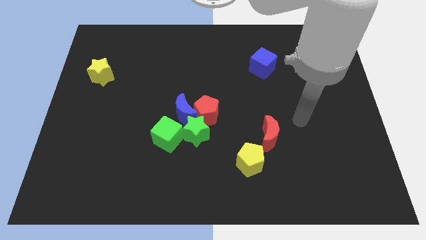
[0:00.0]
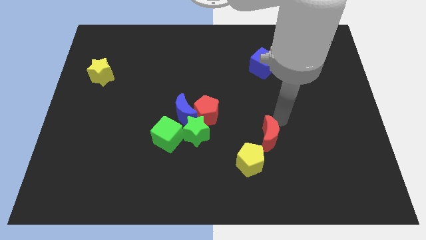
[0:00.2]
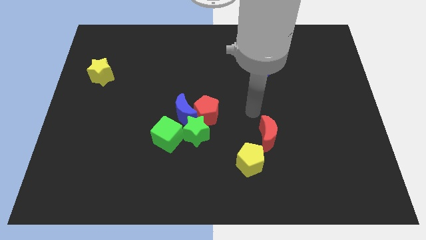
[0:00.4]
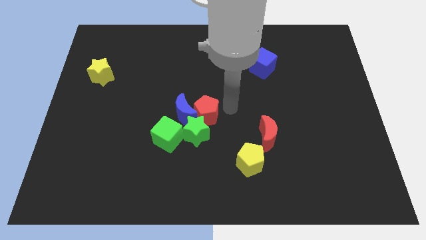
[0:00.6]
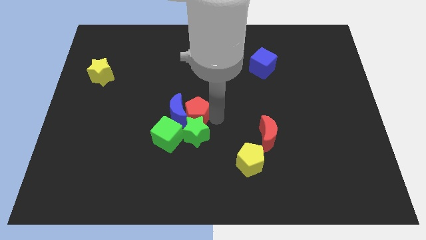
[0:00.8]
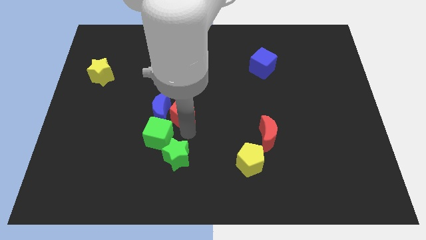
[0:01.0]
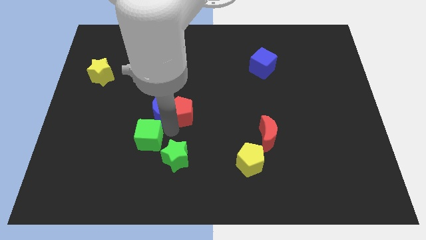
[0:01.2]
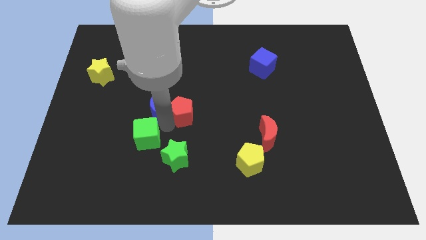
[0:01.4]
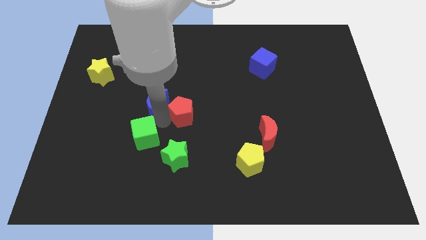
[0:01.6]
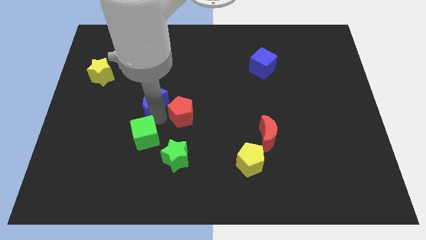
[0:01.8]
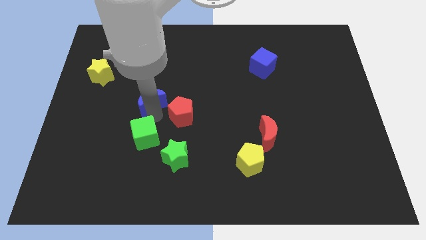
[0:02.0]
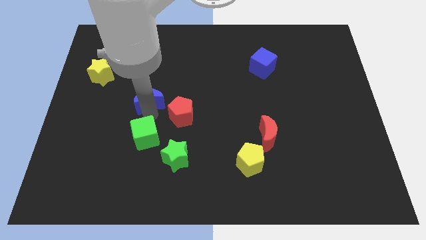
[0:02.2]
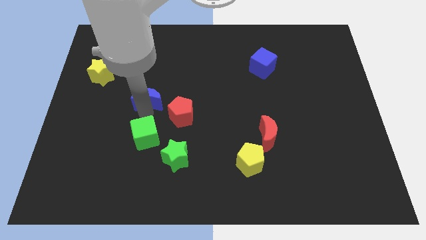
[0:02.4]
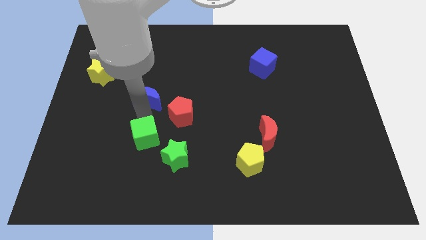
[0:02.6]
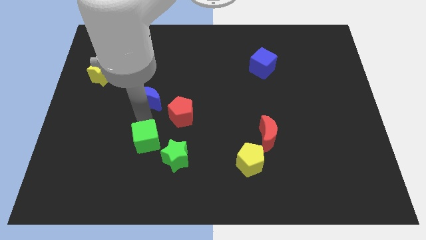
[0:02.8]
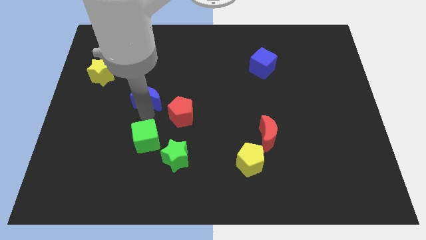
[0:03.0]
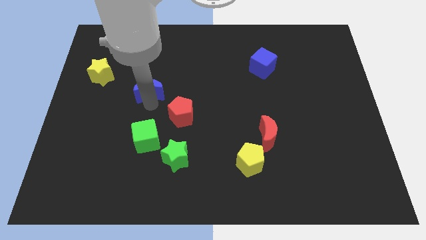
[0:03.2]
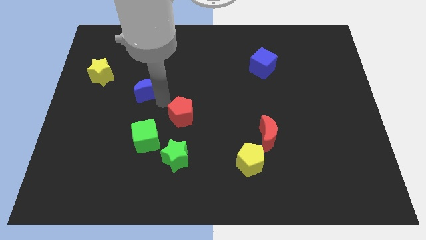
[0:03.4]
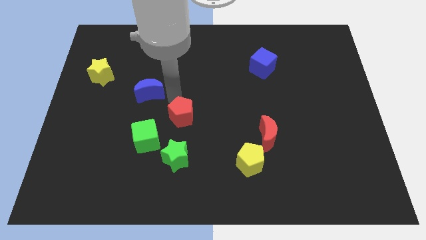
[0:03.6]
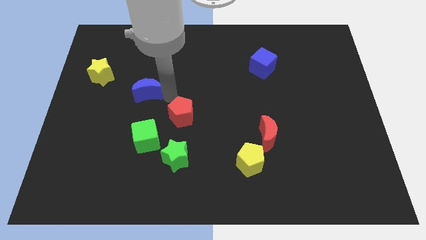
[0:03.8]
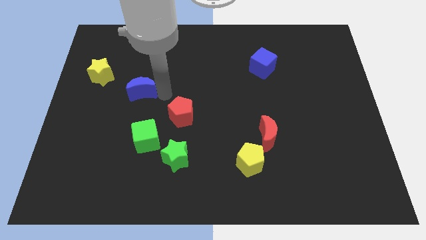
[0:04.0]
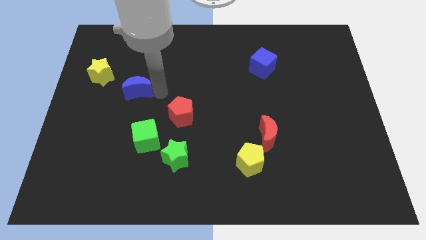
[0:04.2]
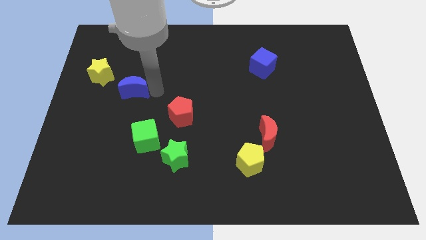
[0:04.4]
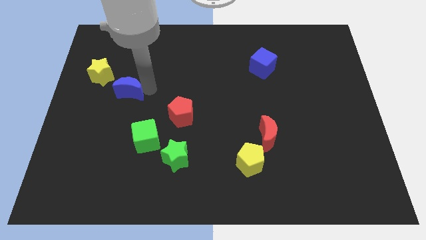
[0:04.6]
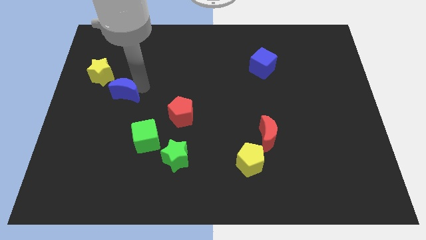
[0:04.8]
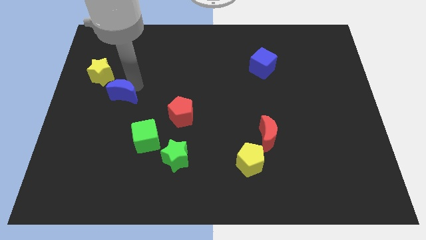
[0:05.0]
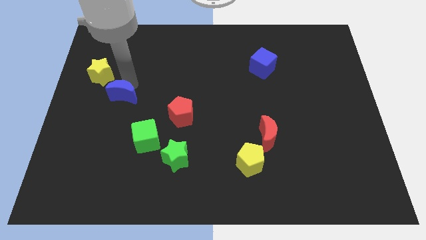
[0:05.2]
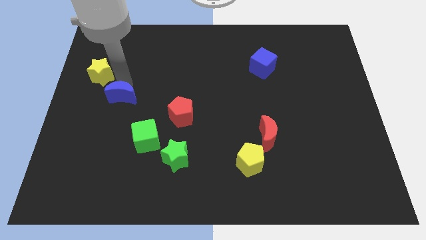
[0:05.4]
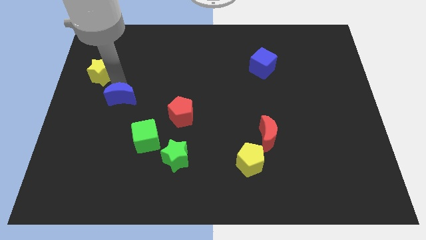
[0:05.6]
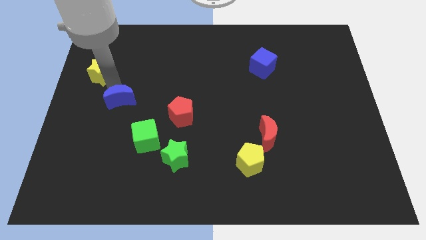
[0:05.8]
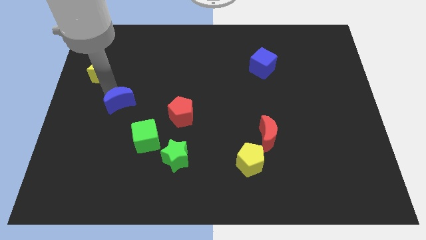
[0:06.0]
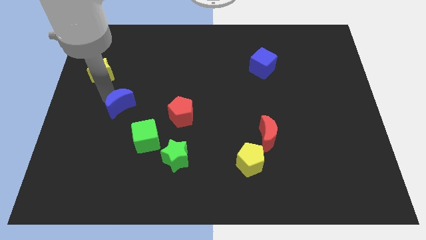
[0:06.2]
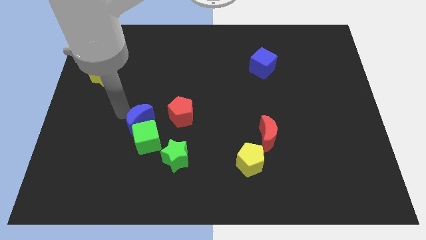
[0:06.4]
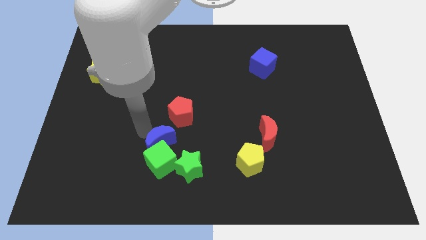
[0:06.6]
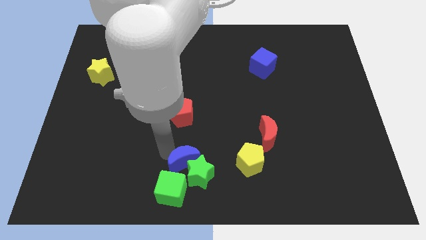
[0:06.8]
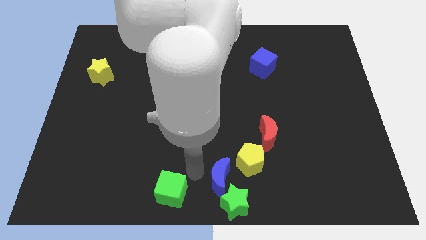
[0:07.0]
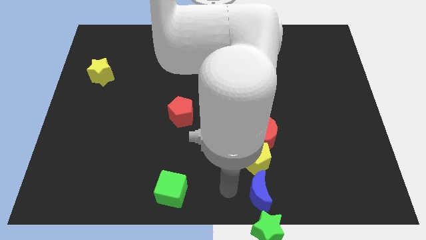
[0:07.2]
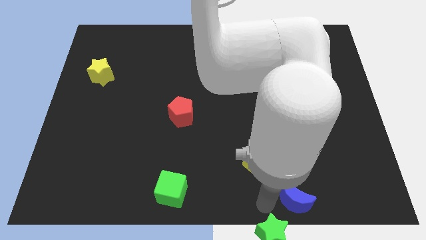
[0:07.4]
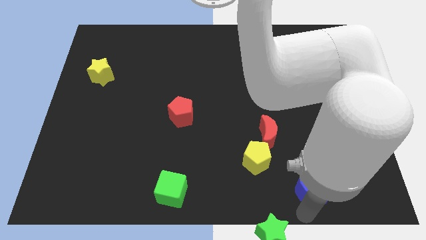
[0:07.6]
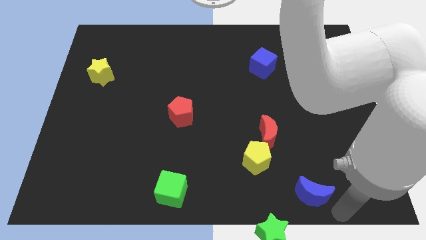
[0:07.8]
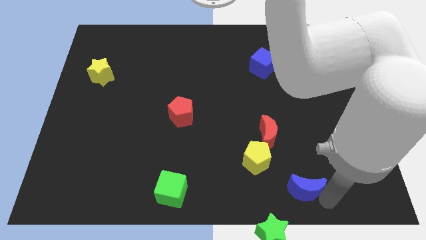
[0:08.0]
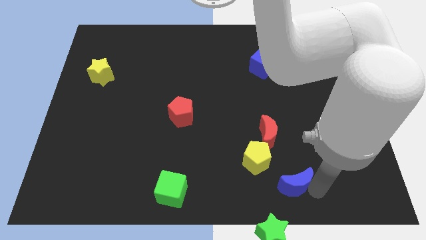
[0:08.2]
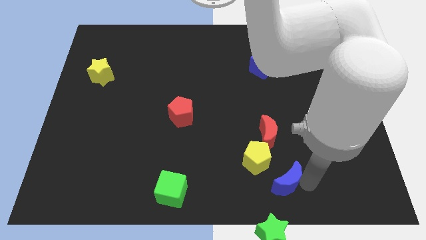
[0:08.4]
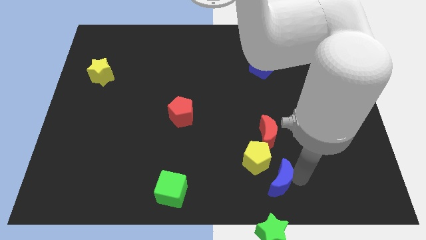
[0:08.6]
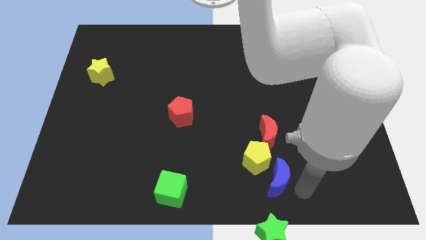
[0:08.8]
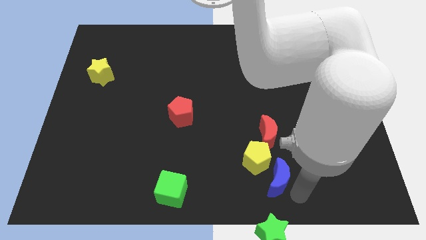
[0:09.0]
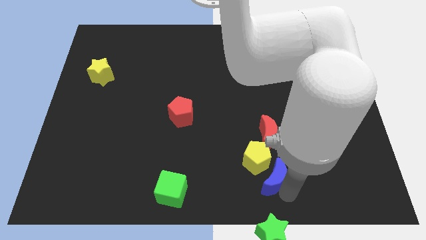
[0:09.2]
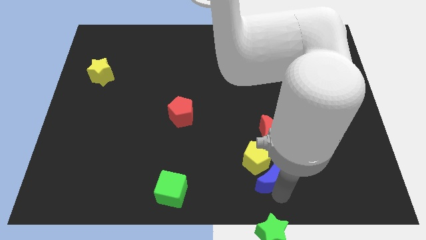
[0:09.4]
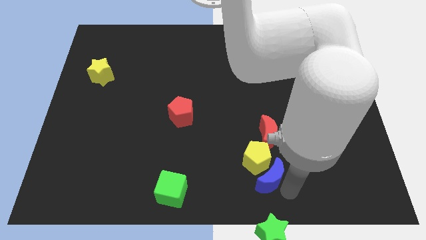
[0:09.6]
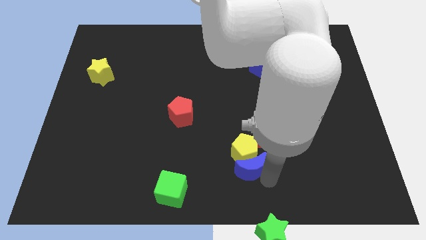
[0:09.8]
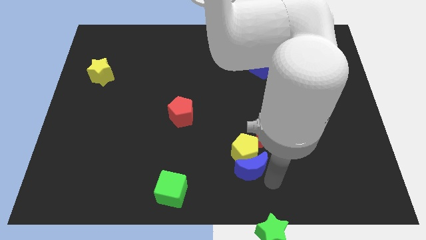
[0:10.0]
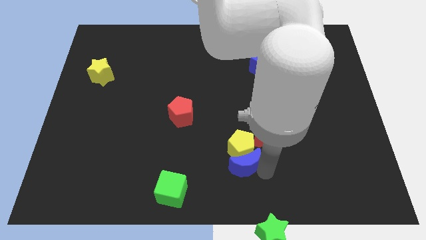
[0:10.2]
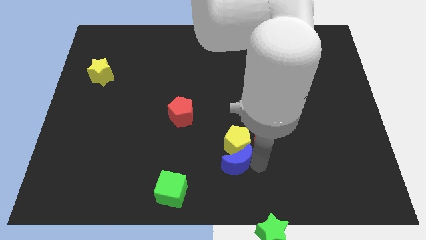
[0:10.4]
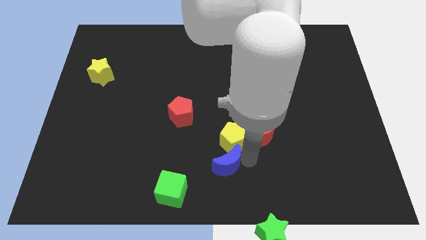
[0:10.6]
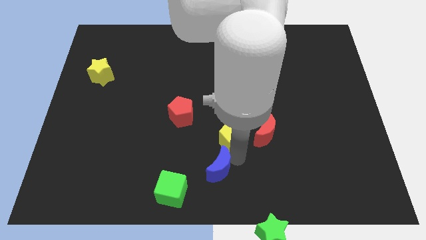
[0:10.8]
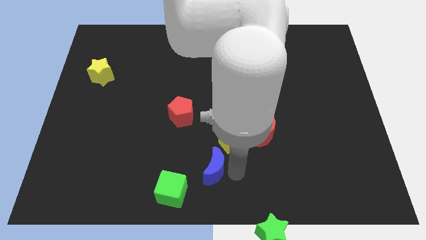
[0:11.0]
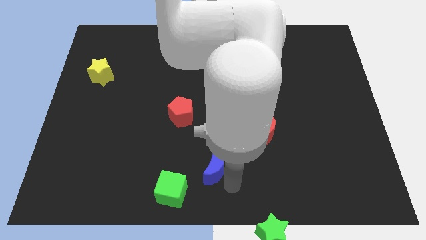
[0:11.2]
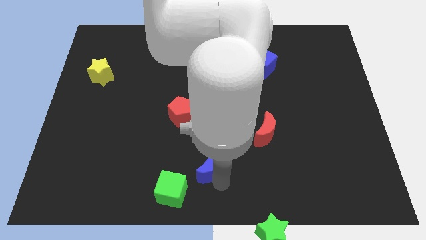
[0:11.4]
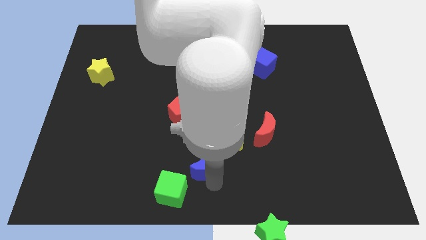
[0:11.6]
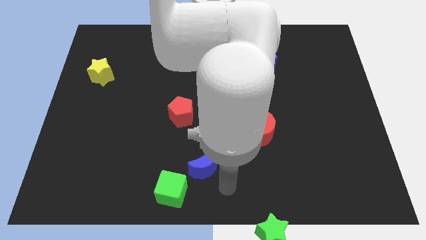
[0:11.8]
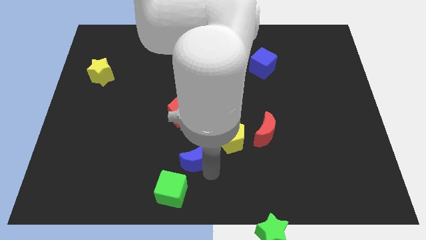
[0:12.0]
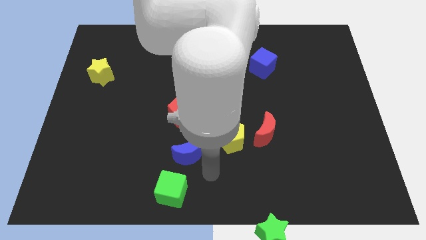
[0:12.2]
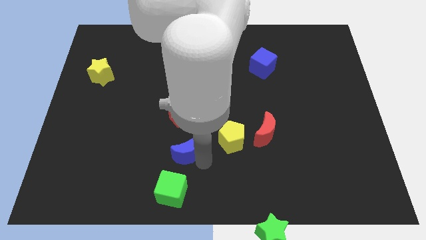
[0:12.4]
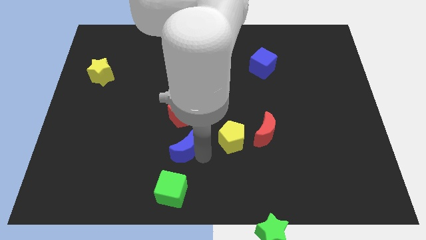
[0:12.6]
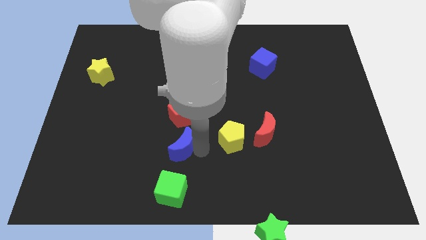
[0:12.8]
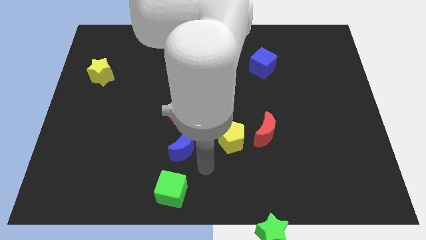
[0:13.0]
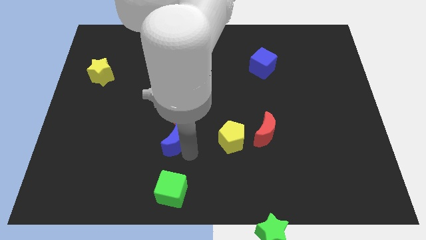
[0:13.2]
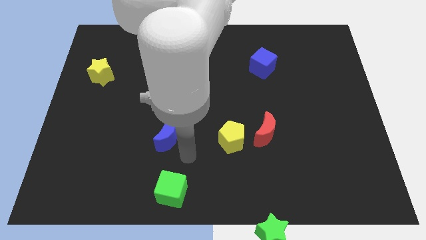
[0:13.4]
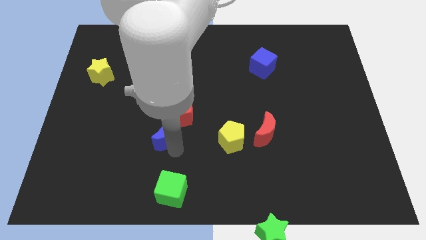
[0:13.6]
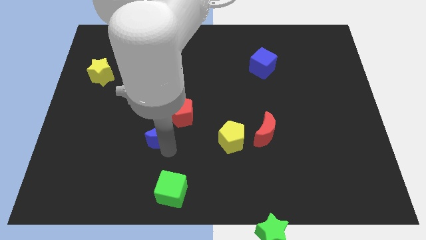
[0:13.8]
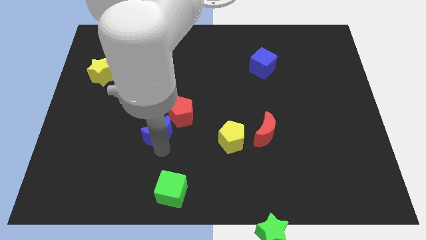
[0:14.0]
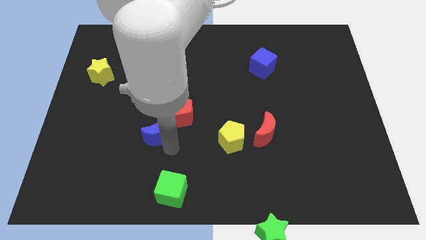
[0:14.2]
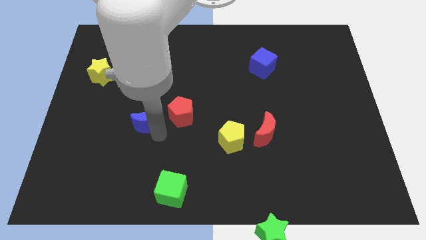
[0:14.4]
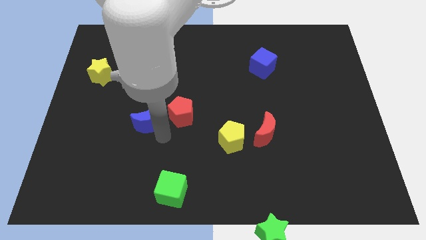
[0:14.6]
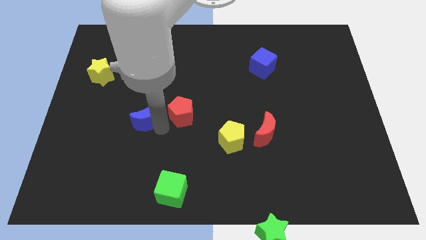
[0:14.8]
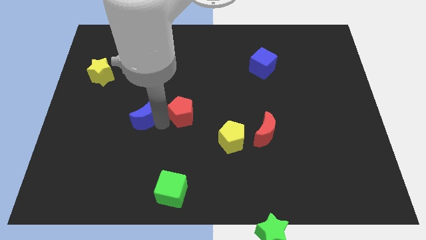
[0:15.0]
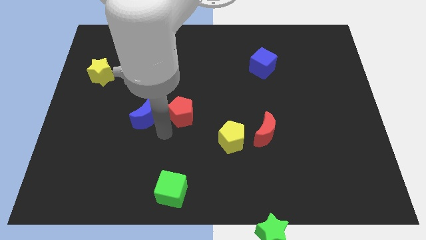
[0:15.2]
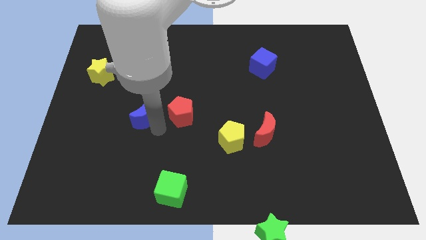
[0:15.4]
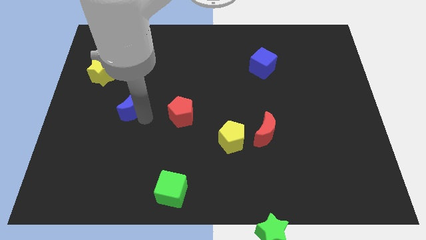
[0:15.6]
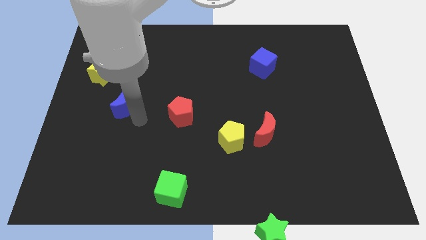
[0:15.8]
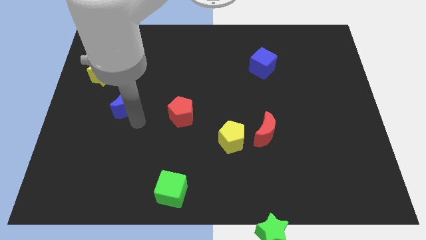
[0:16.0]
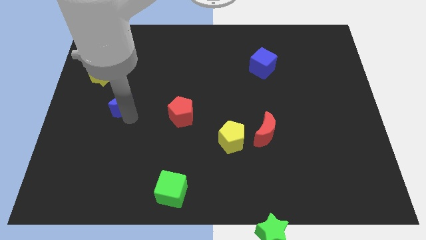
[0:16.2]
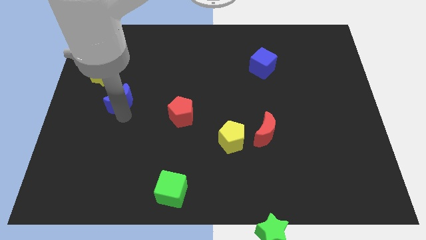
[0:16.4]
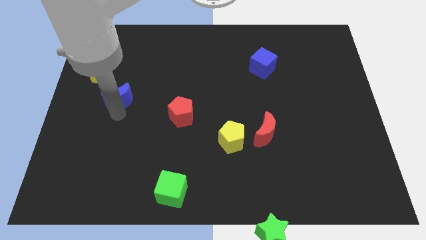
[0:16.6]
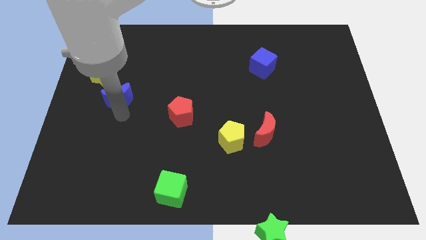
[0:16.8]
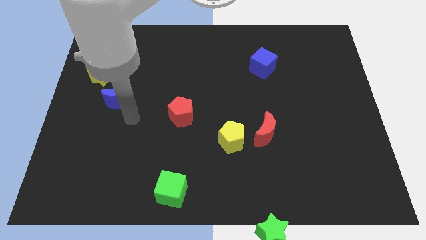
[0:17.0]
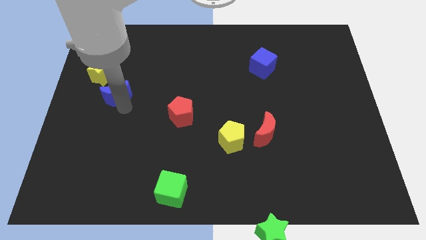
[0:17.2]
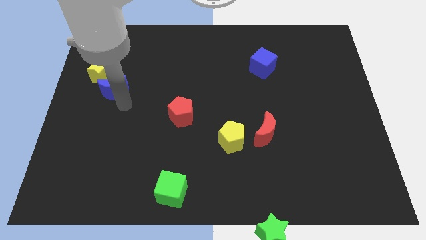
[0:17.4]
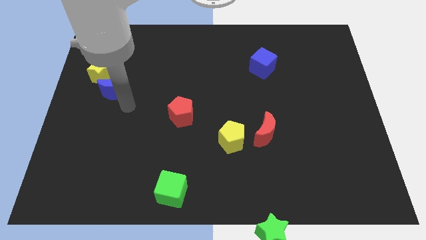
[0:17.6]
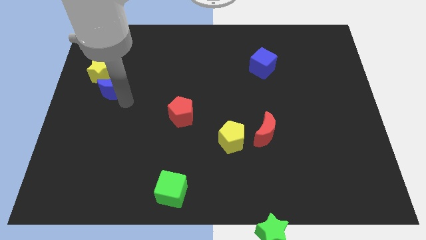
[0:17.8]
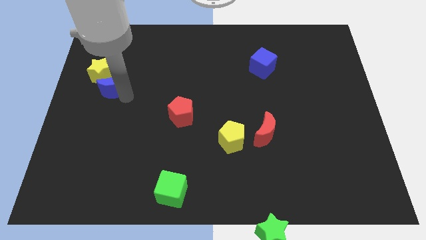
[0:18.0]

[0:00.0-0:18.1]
slide the blue moon close to the yellow star
